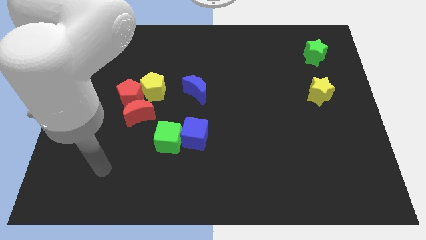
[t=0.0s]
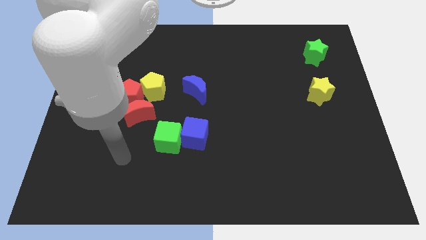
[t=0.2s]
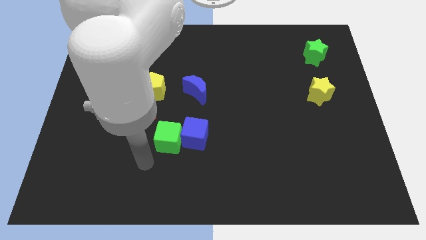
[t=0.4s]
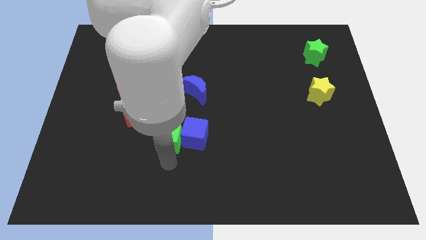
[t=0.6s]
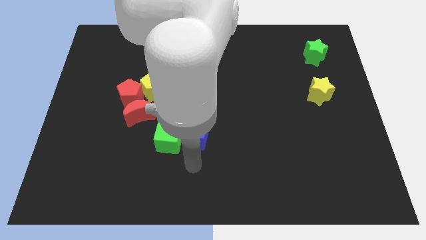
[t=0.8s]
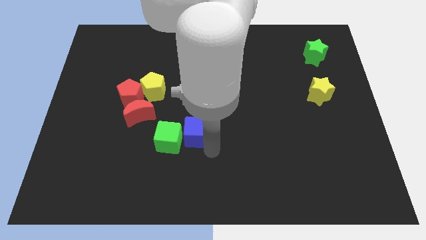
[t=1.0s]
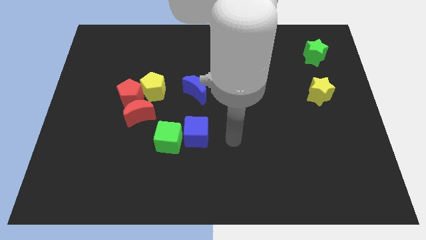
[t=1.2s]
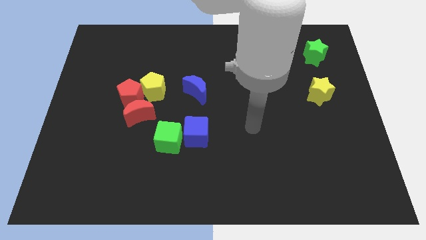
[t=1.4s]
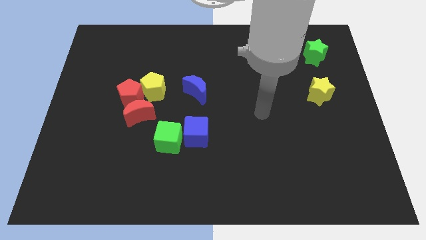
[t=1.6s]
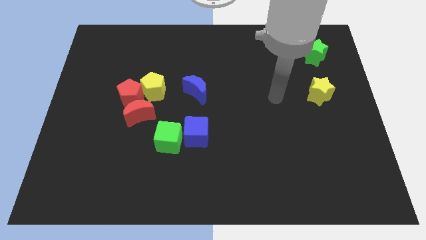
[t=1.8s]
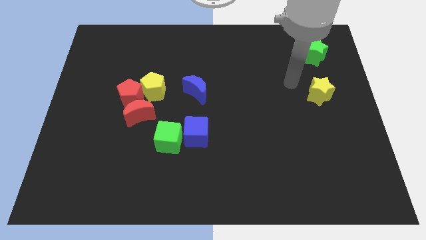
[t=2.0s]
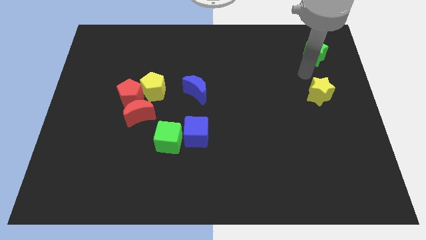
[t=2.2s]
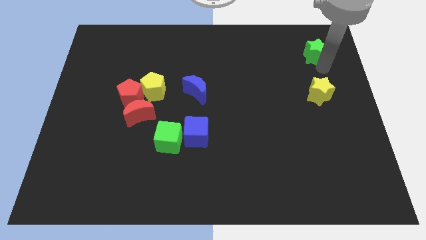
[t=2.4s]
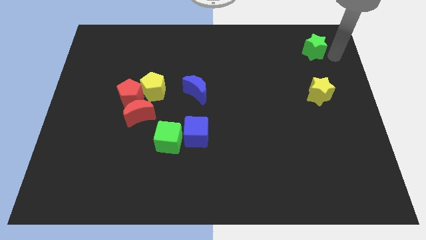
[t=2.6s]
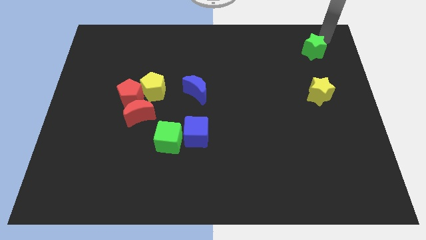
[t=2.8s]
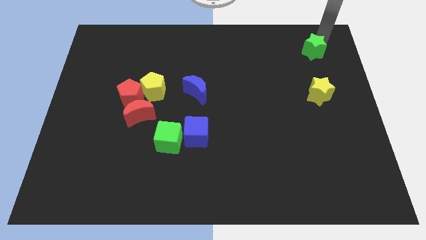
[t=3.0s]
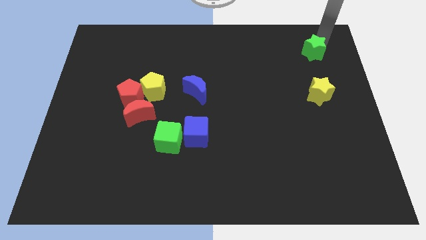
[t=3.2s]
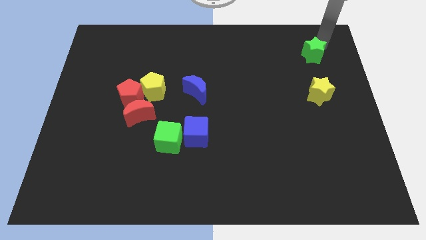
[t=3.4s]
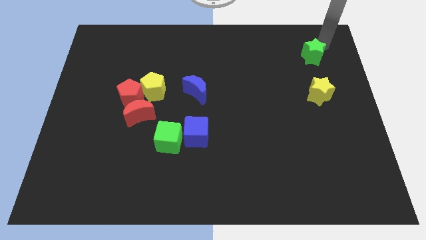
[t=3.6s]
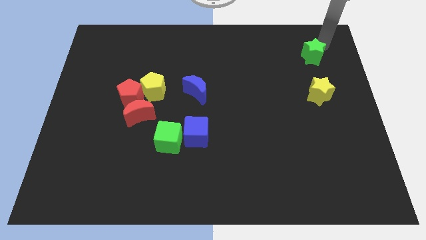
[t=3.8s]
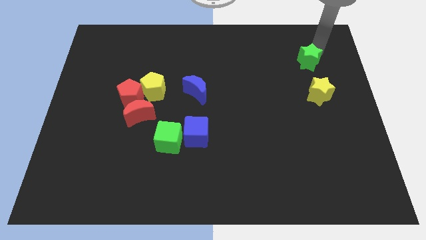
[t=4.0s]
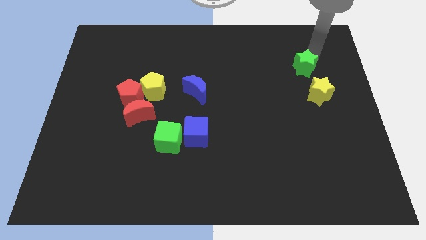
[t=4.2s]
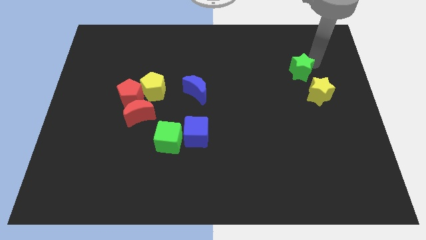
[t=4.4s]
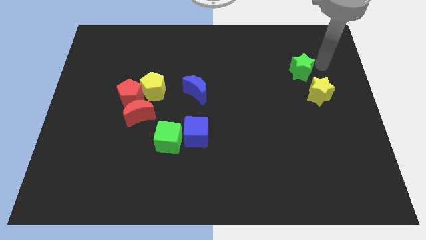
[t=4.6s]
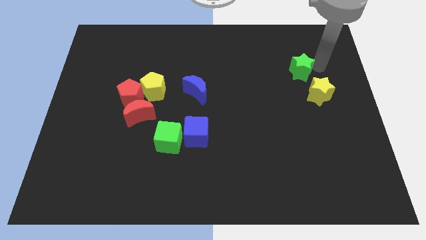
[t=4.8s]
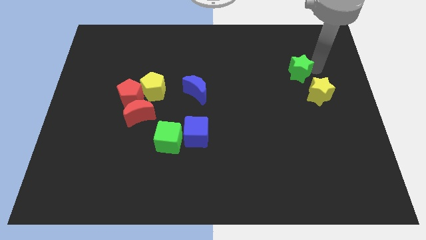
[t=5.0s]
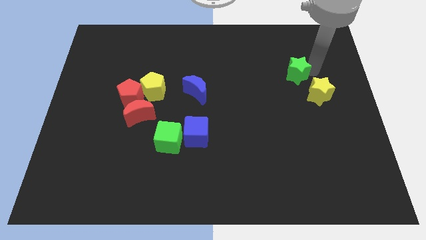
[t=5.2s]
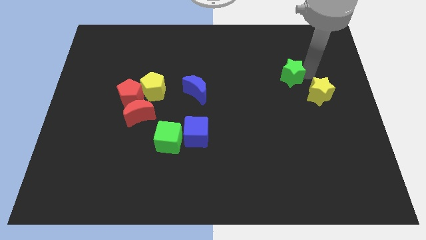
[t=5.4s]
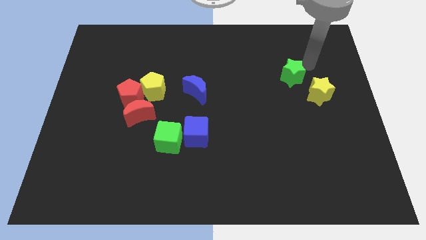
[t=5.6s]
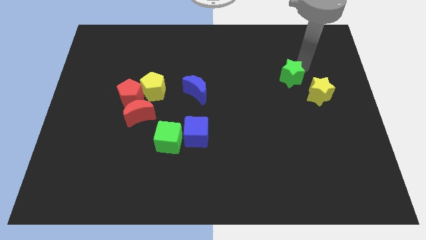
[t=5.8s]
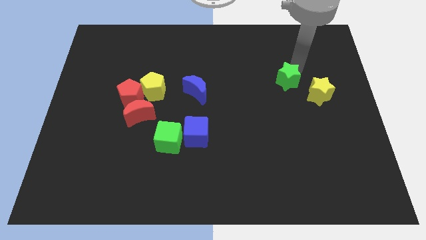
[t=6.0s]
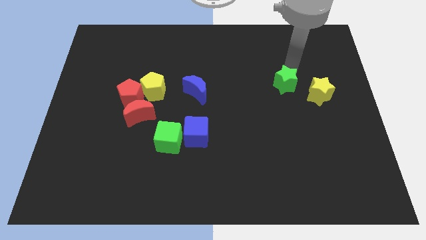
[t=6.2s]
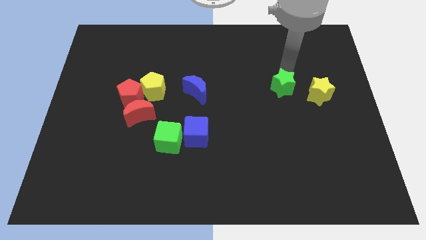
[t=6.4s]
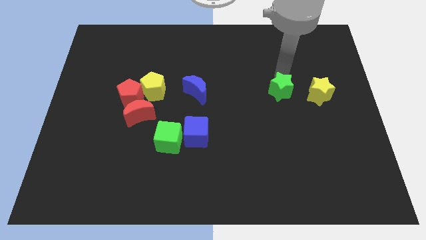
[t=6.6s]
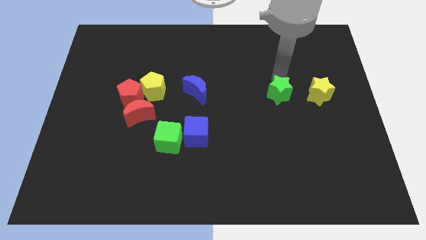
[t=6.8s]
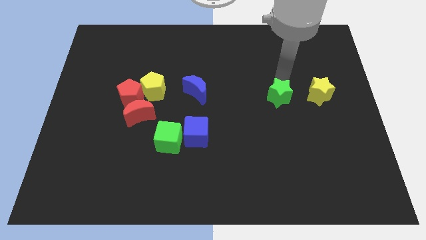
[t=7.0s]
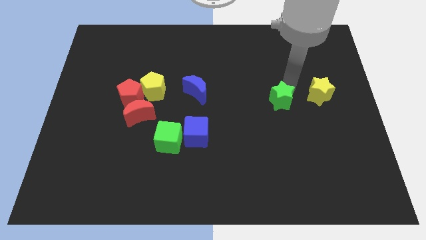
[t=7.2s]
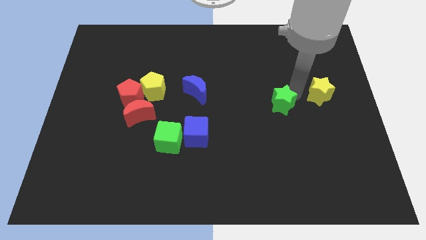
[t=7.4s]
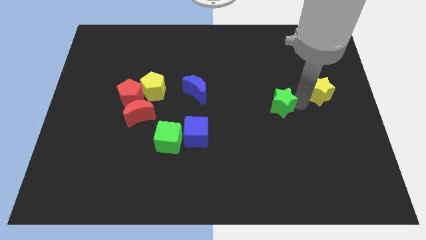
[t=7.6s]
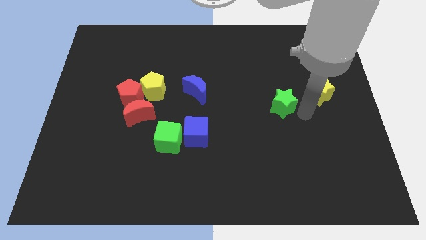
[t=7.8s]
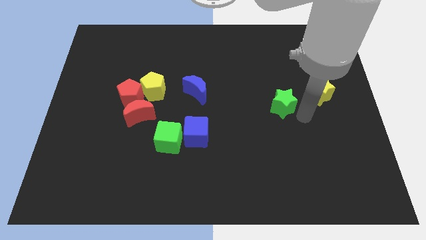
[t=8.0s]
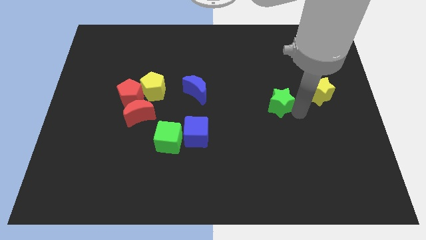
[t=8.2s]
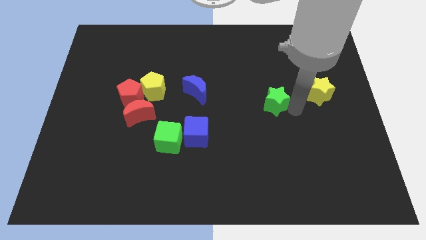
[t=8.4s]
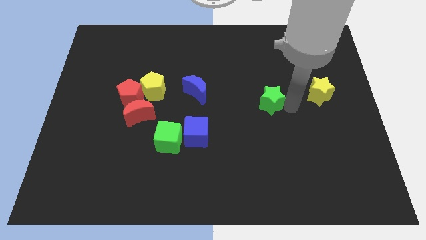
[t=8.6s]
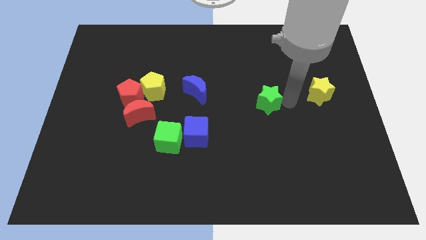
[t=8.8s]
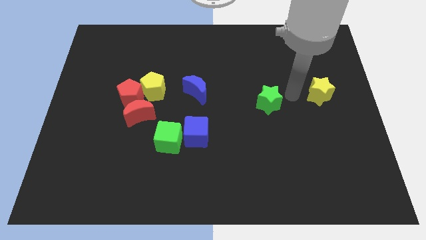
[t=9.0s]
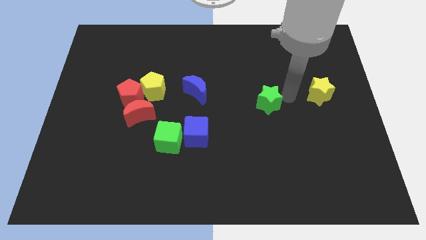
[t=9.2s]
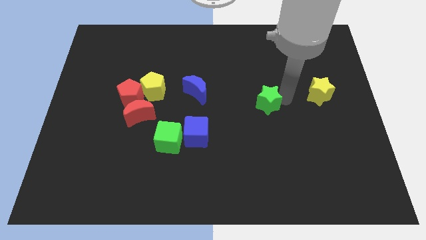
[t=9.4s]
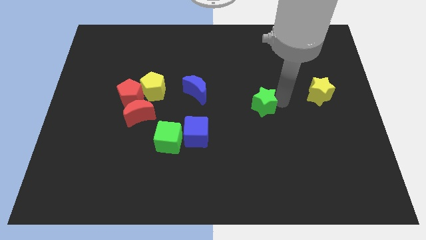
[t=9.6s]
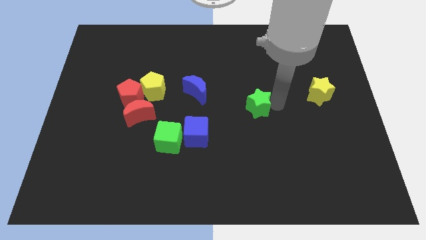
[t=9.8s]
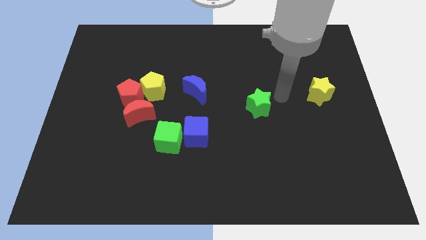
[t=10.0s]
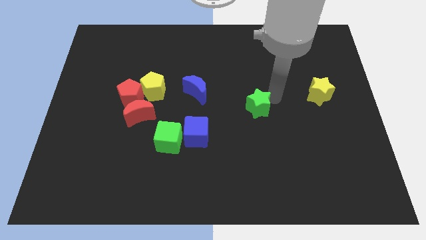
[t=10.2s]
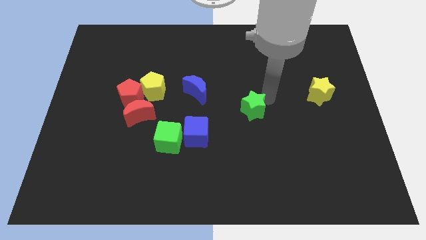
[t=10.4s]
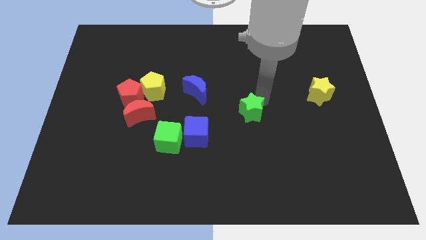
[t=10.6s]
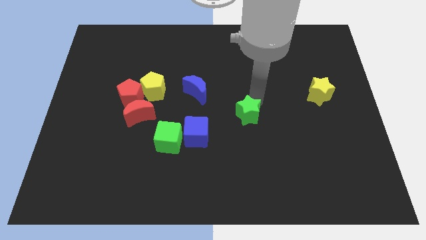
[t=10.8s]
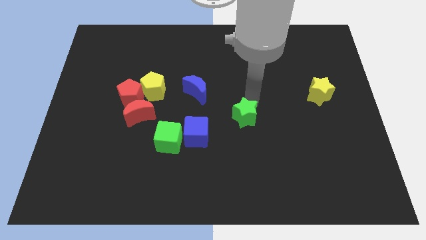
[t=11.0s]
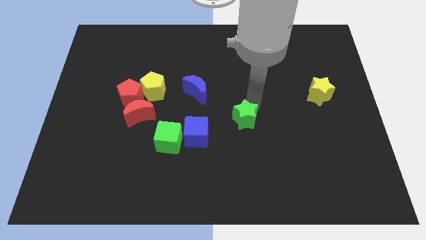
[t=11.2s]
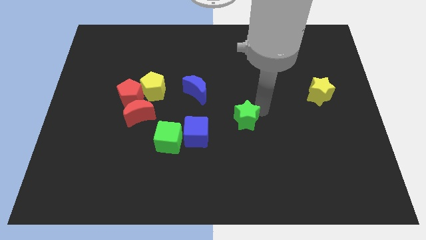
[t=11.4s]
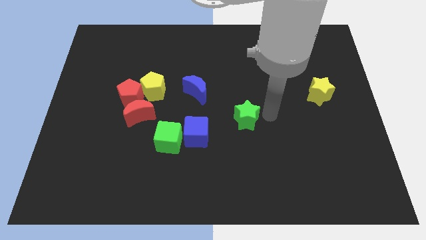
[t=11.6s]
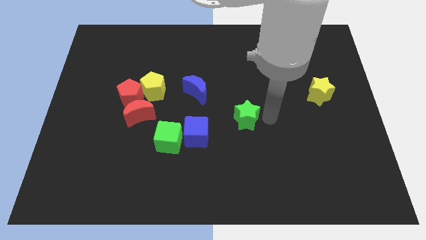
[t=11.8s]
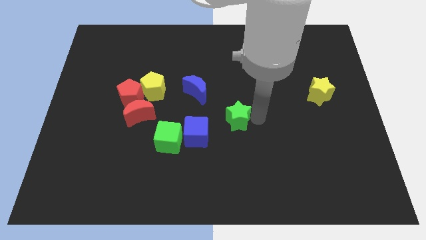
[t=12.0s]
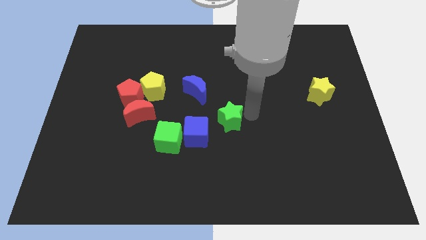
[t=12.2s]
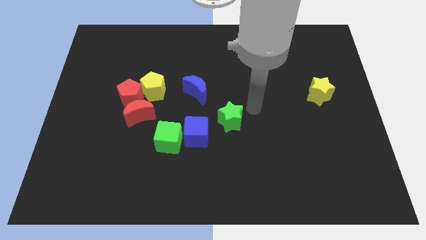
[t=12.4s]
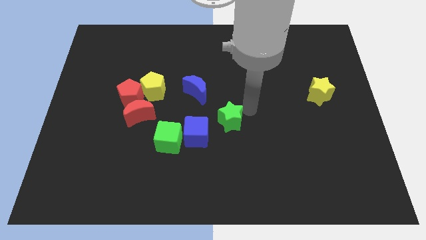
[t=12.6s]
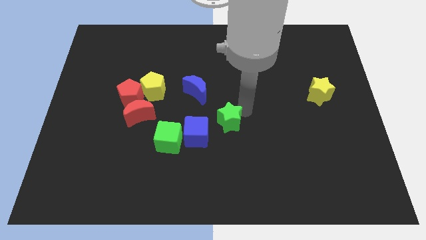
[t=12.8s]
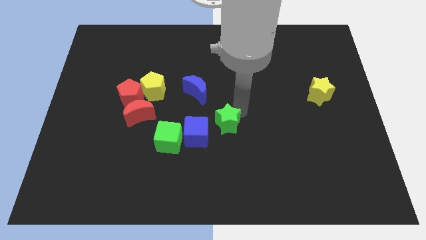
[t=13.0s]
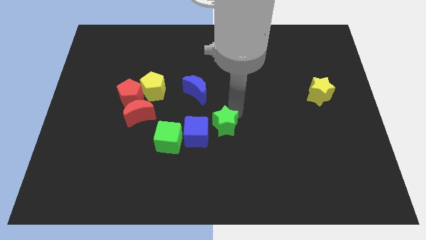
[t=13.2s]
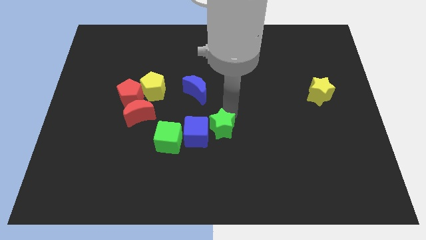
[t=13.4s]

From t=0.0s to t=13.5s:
slide the green star close to the blue cube

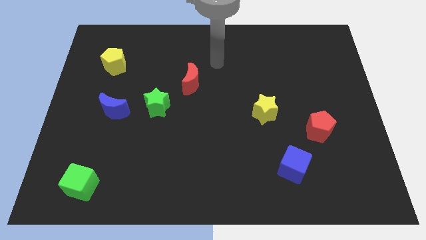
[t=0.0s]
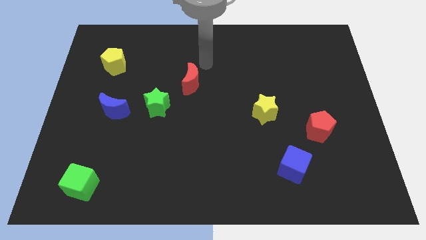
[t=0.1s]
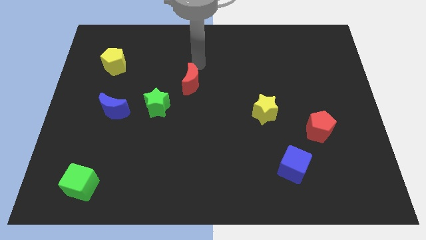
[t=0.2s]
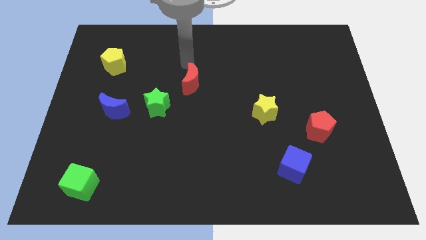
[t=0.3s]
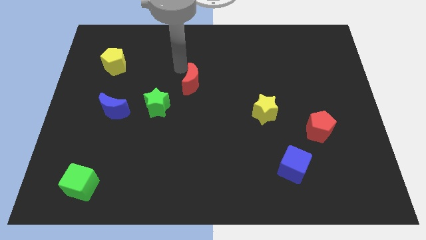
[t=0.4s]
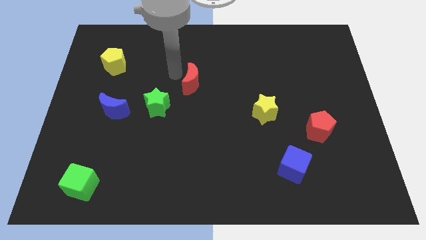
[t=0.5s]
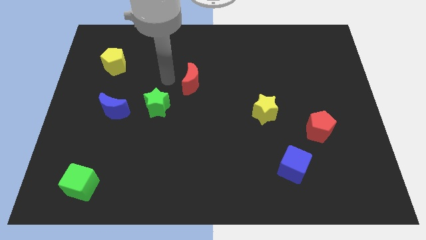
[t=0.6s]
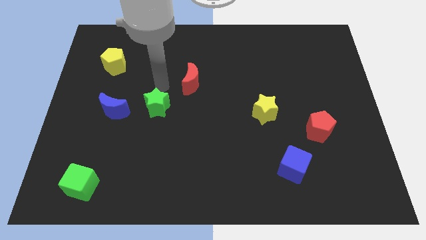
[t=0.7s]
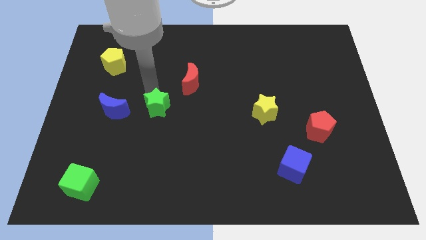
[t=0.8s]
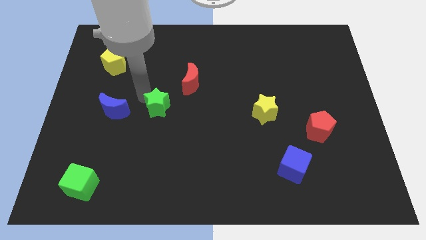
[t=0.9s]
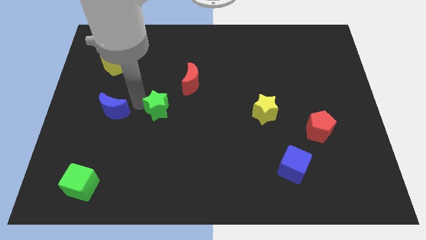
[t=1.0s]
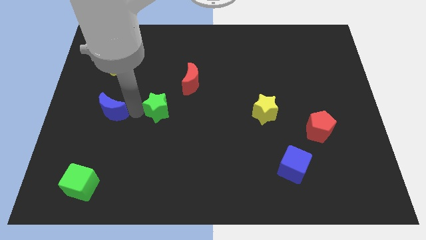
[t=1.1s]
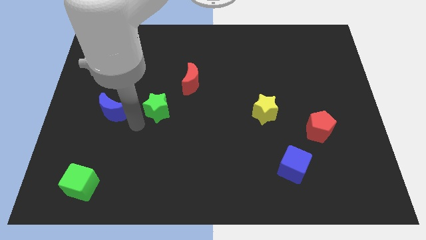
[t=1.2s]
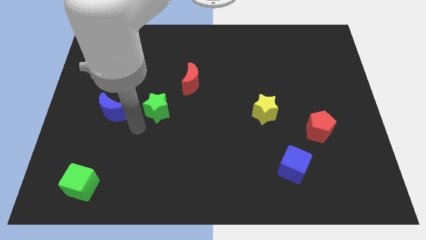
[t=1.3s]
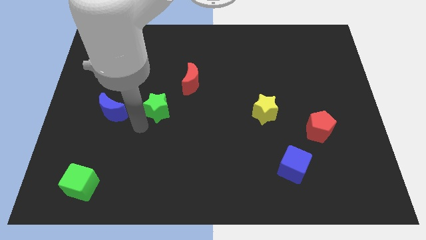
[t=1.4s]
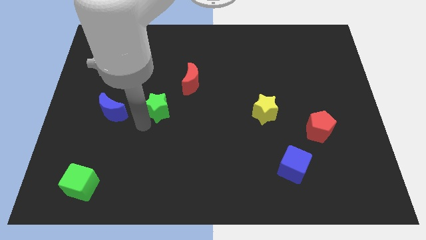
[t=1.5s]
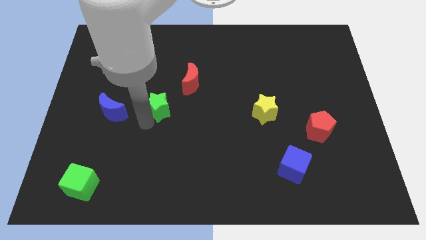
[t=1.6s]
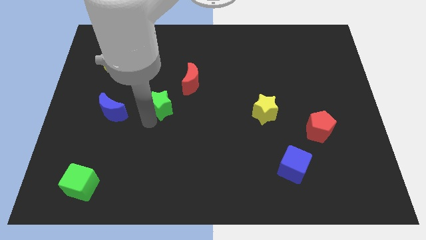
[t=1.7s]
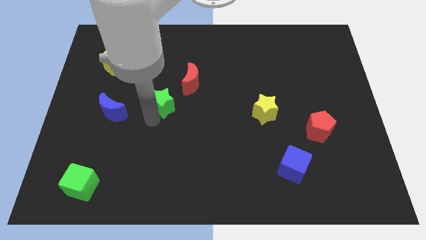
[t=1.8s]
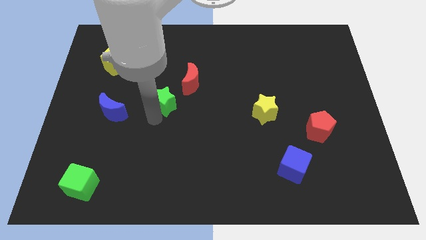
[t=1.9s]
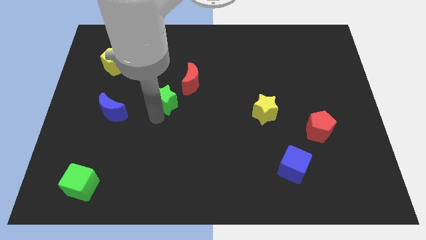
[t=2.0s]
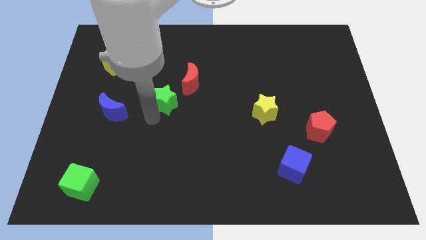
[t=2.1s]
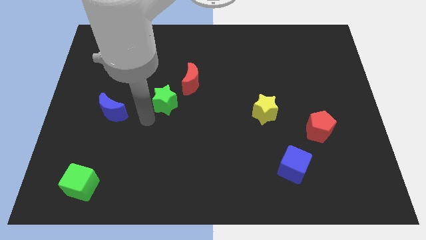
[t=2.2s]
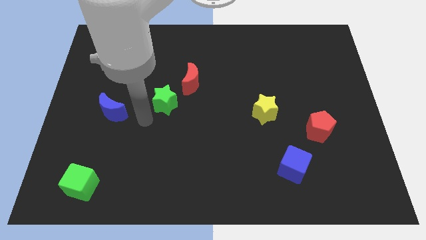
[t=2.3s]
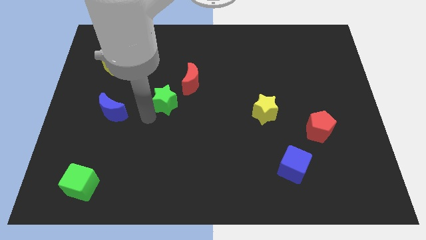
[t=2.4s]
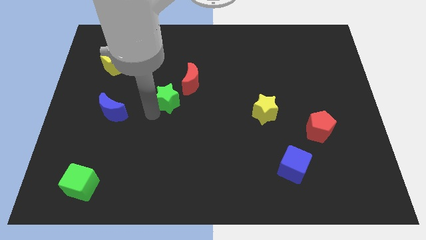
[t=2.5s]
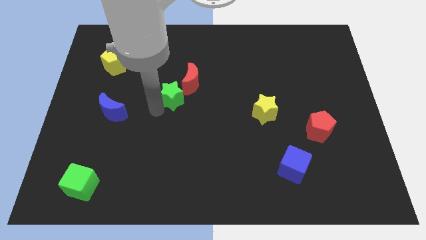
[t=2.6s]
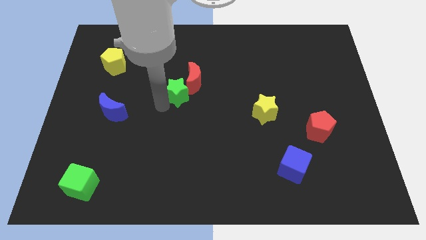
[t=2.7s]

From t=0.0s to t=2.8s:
push the green star next to the red moon
